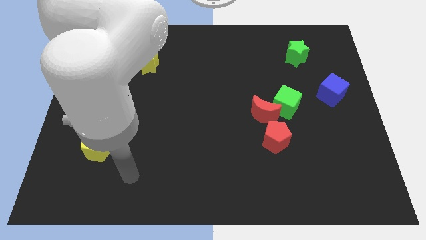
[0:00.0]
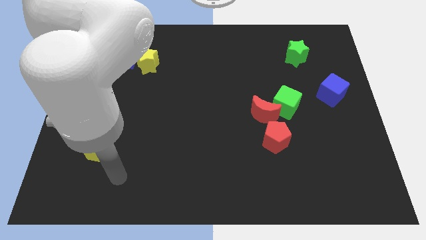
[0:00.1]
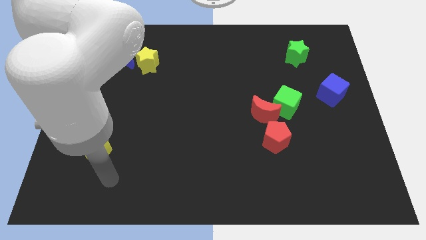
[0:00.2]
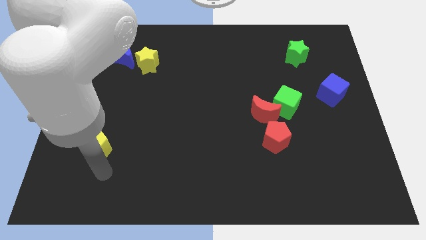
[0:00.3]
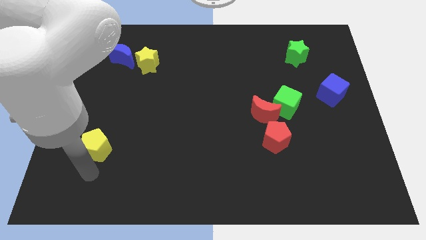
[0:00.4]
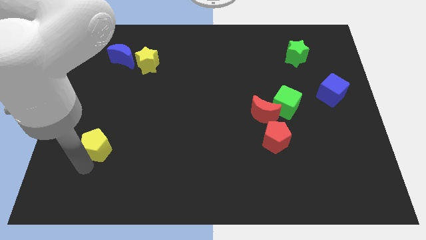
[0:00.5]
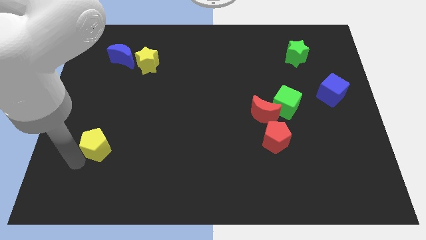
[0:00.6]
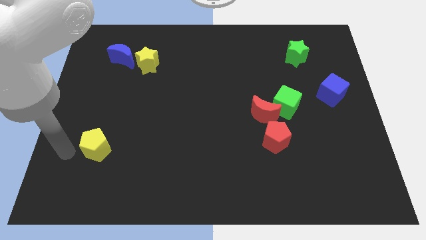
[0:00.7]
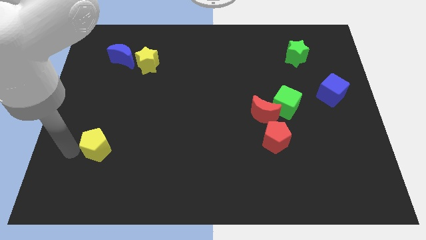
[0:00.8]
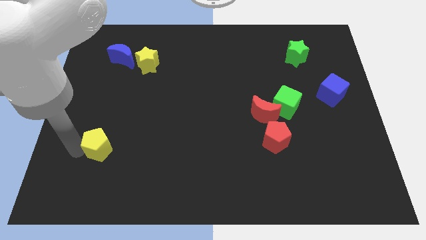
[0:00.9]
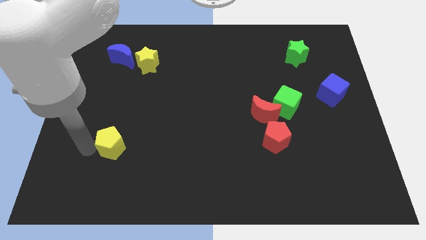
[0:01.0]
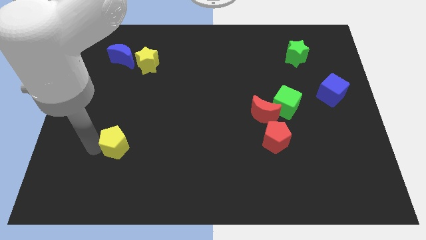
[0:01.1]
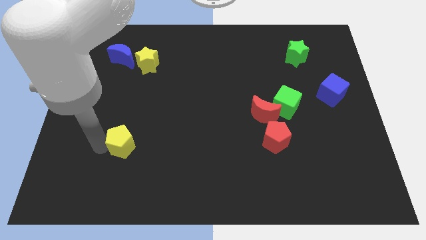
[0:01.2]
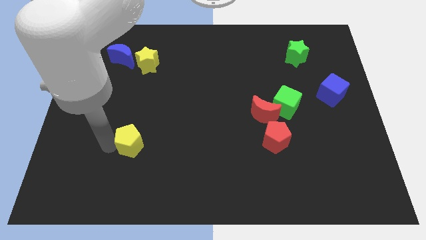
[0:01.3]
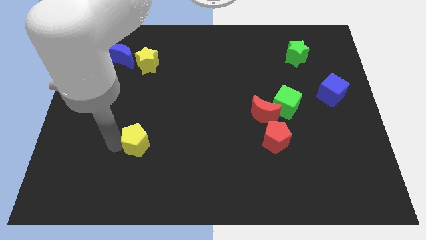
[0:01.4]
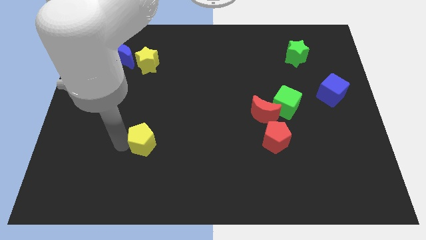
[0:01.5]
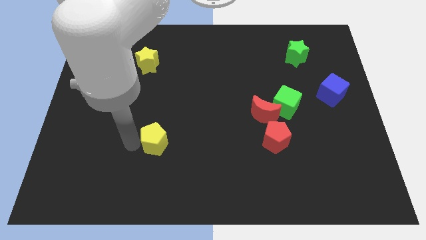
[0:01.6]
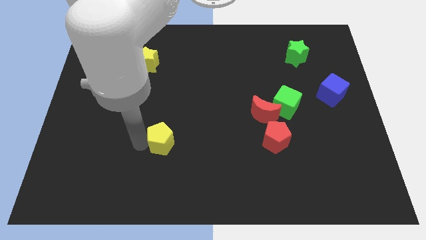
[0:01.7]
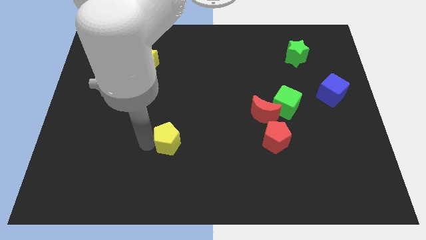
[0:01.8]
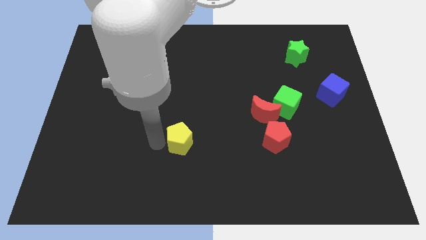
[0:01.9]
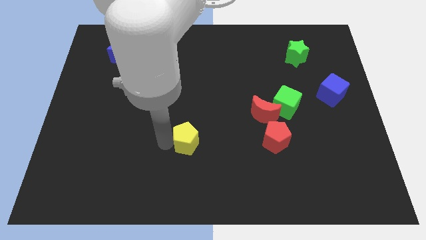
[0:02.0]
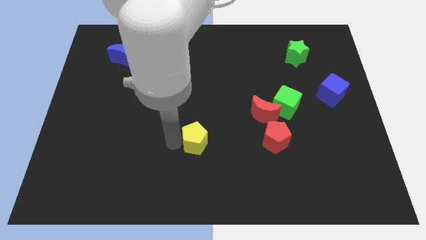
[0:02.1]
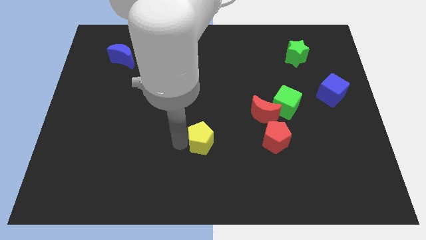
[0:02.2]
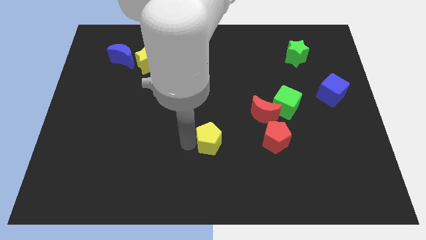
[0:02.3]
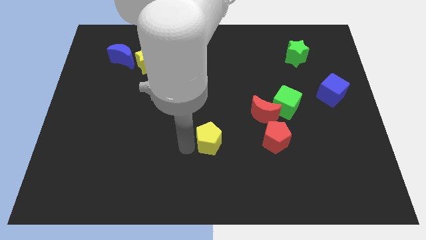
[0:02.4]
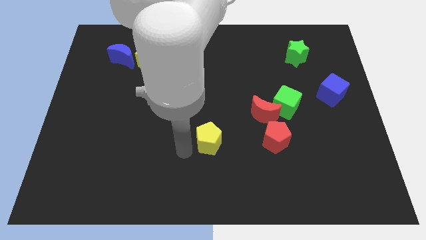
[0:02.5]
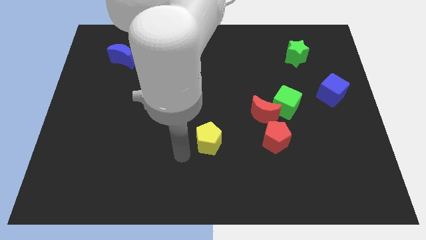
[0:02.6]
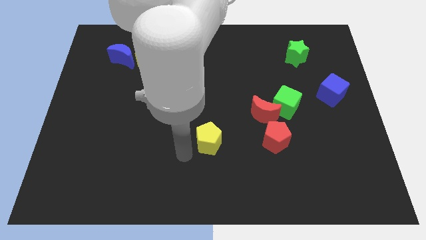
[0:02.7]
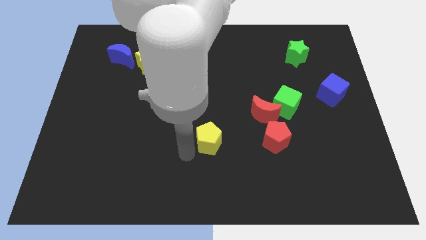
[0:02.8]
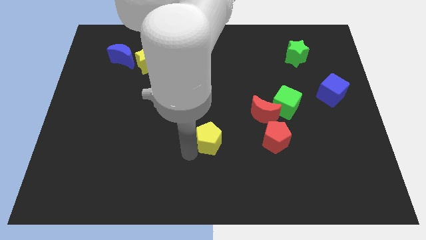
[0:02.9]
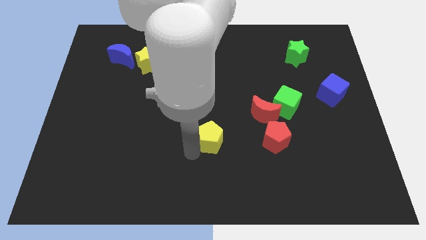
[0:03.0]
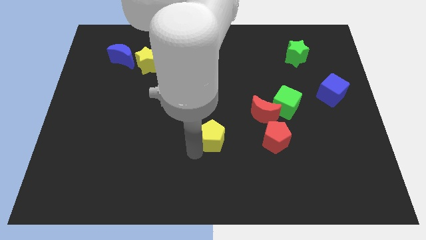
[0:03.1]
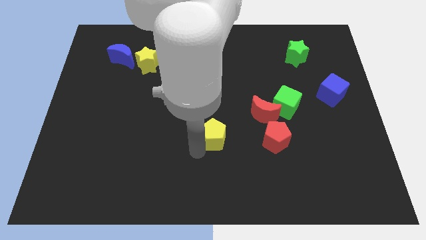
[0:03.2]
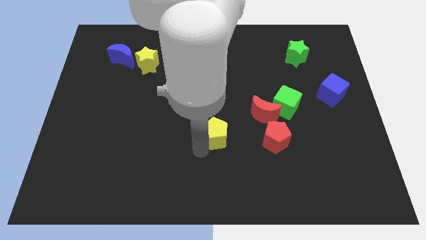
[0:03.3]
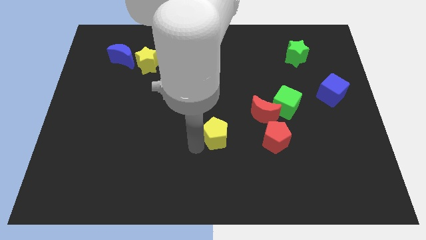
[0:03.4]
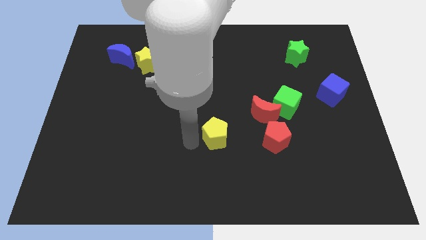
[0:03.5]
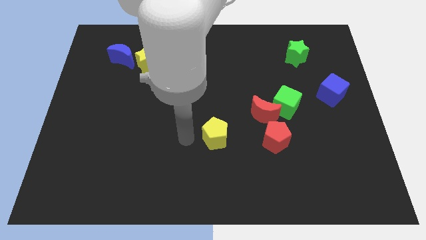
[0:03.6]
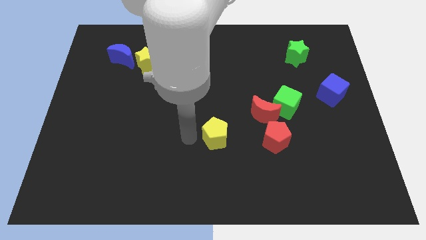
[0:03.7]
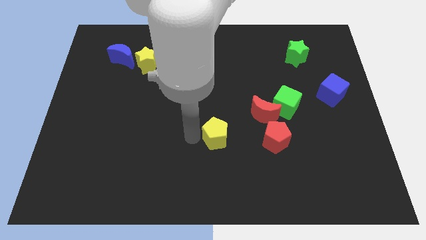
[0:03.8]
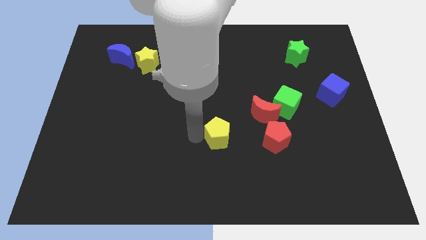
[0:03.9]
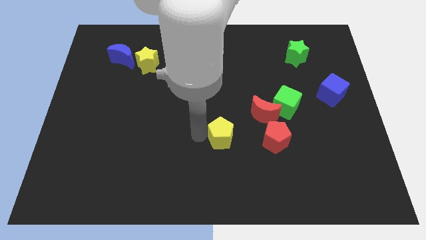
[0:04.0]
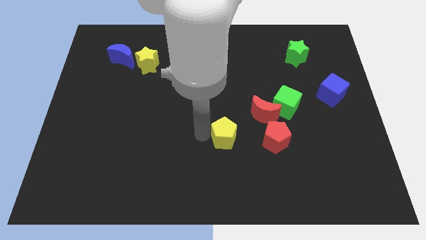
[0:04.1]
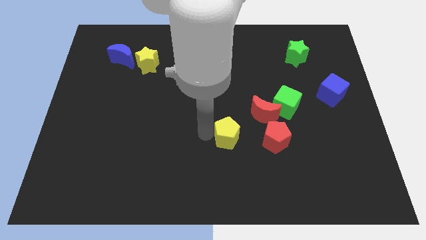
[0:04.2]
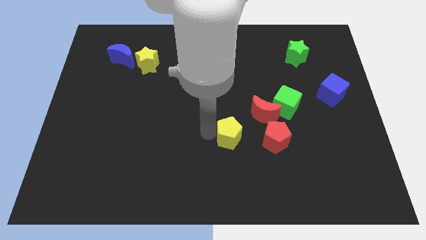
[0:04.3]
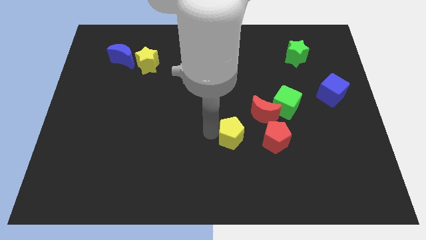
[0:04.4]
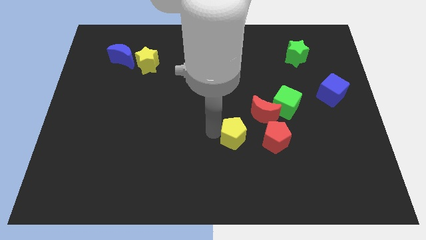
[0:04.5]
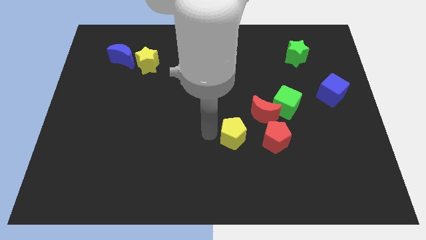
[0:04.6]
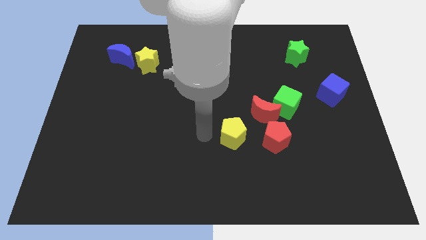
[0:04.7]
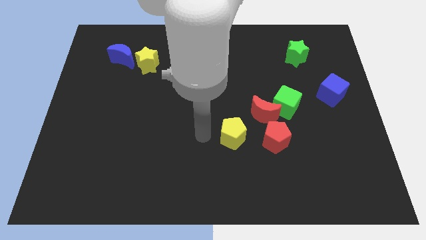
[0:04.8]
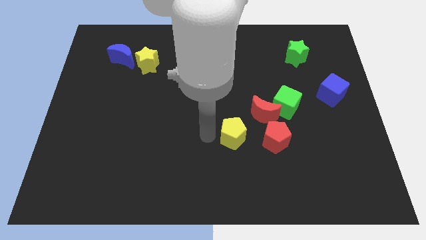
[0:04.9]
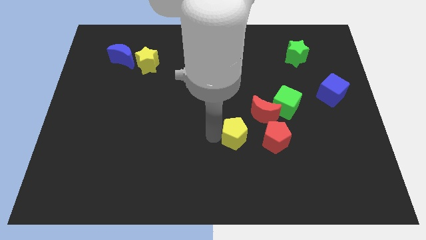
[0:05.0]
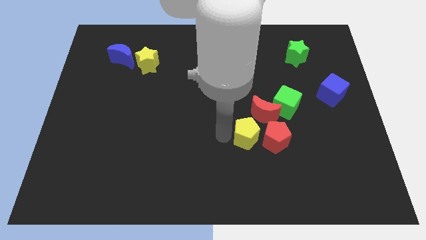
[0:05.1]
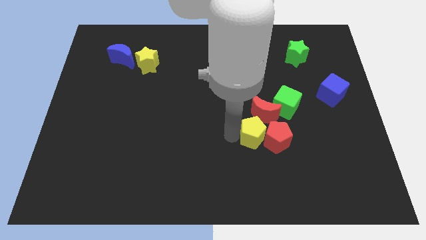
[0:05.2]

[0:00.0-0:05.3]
slide the yellow pentagon to the red pentagon

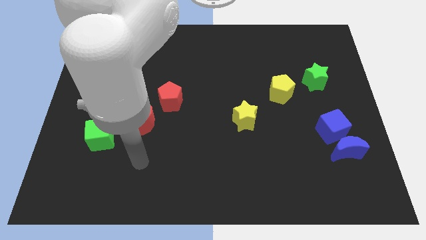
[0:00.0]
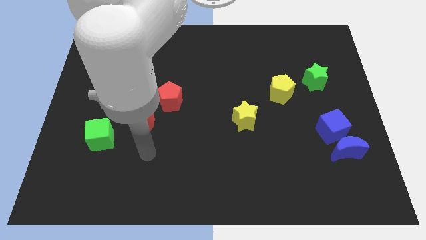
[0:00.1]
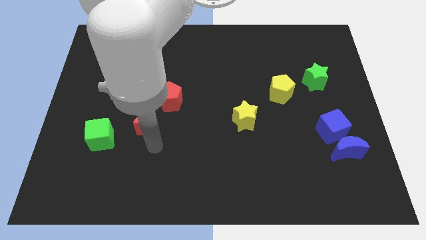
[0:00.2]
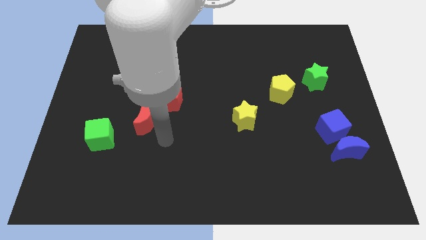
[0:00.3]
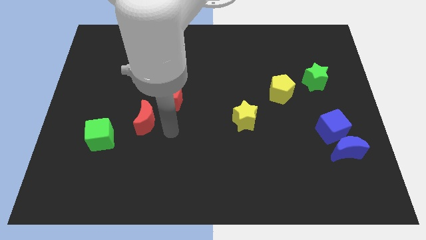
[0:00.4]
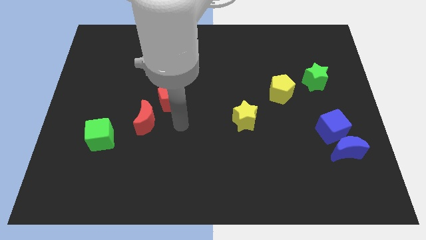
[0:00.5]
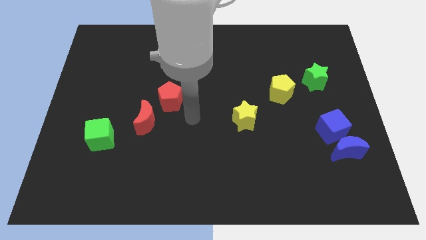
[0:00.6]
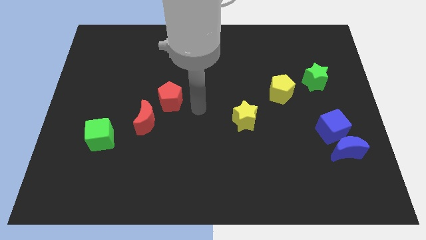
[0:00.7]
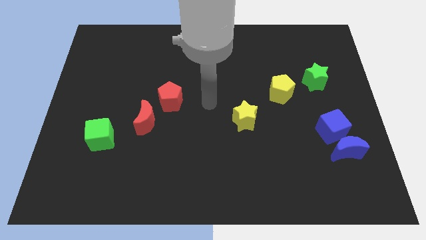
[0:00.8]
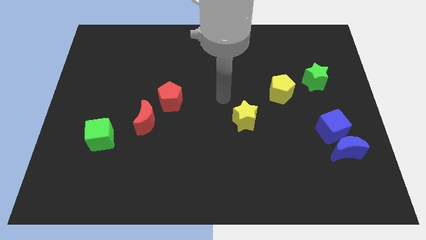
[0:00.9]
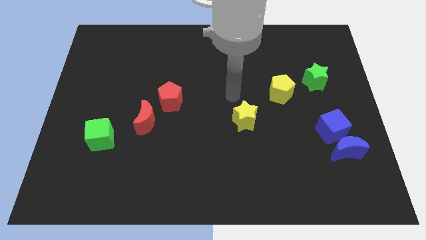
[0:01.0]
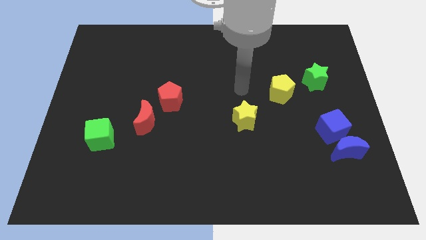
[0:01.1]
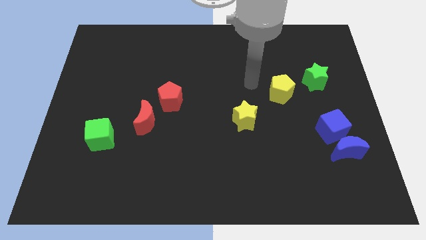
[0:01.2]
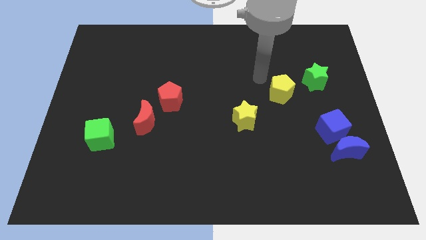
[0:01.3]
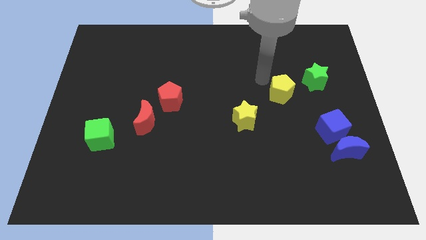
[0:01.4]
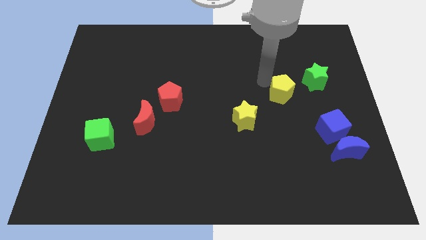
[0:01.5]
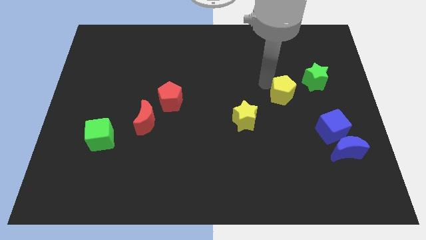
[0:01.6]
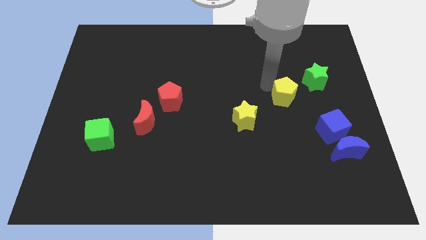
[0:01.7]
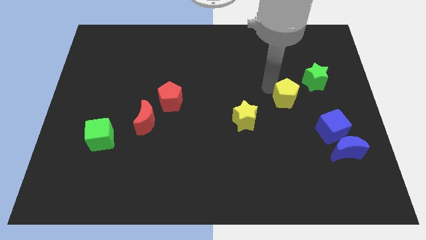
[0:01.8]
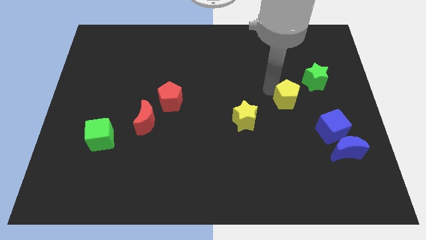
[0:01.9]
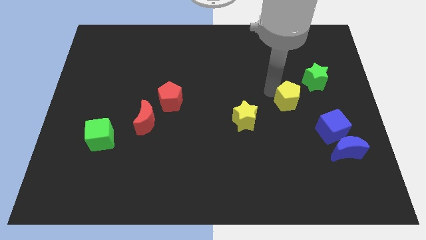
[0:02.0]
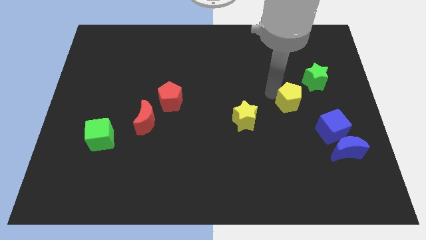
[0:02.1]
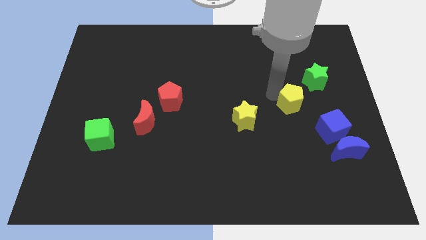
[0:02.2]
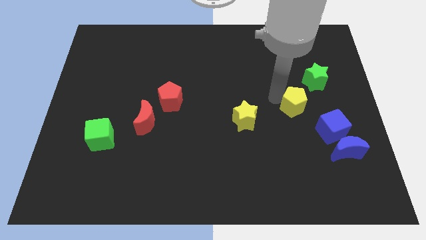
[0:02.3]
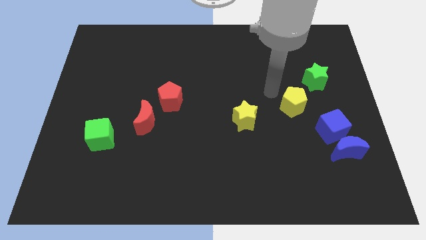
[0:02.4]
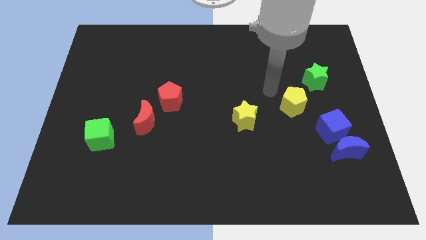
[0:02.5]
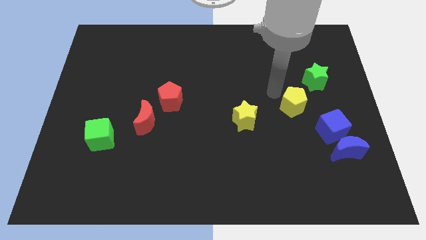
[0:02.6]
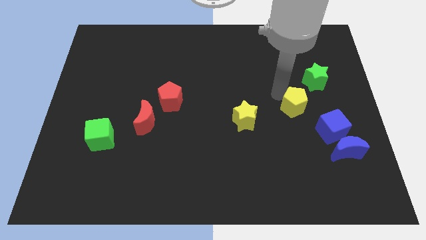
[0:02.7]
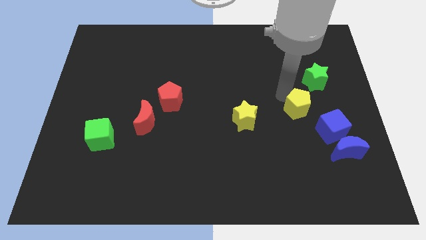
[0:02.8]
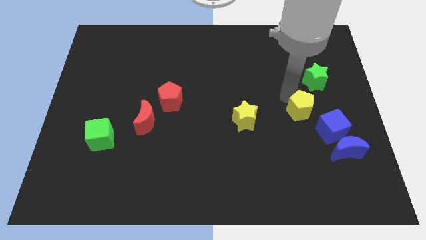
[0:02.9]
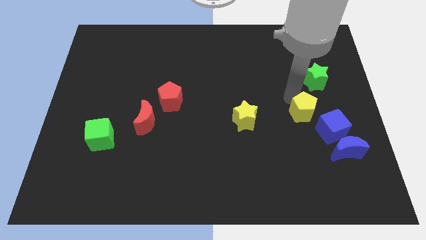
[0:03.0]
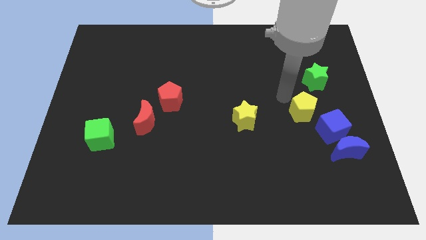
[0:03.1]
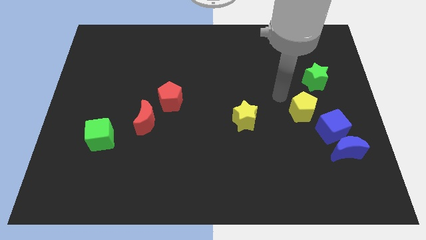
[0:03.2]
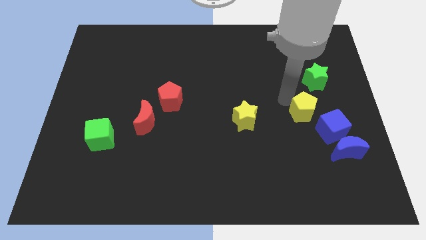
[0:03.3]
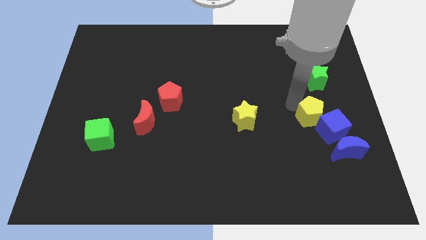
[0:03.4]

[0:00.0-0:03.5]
slide the yellow pentagon next to the blue cube
